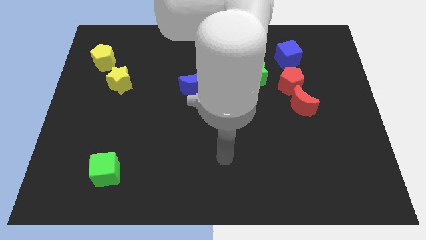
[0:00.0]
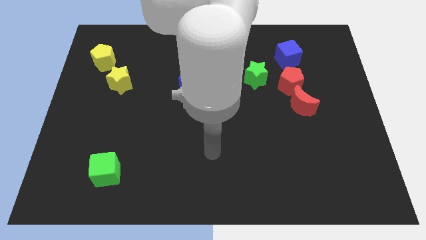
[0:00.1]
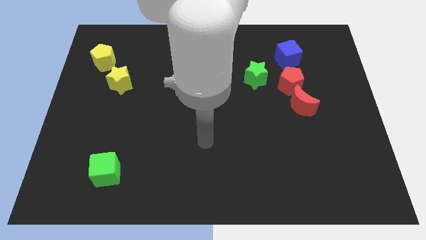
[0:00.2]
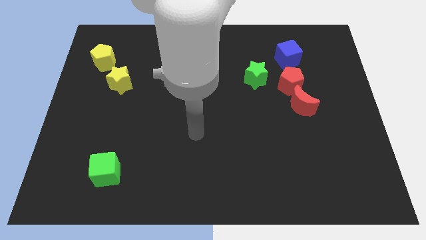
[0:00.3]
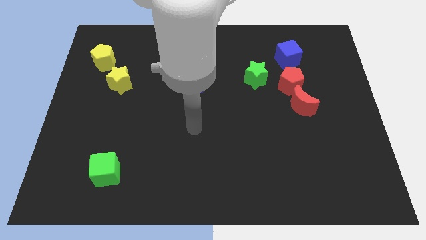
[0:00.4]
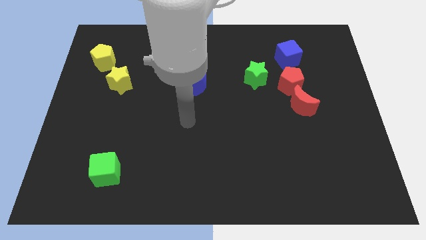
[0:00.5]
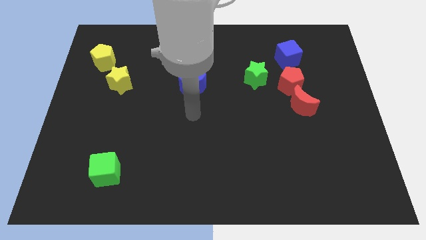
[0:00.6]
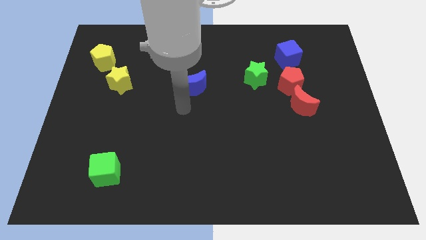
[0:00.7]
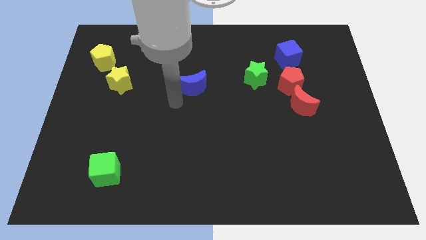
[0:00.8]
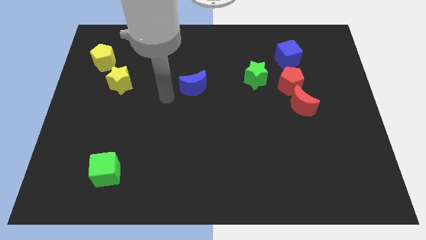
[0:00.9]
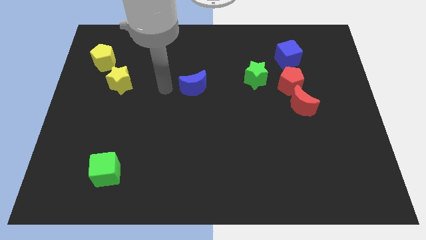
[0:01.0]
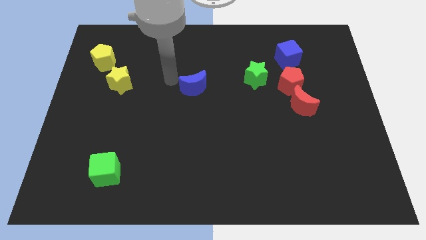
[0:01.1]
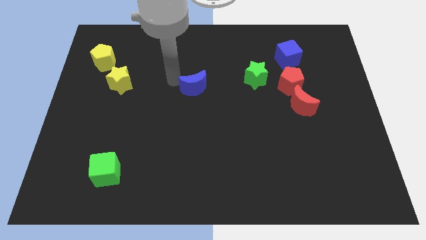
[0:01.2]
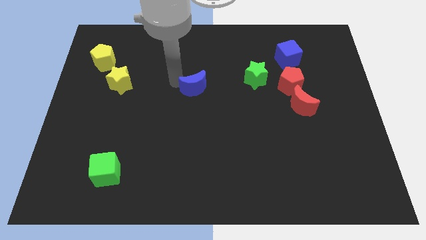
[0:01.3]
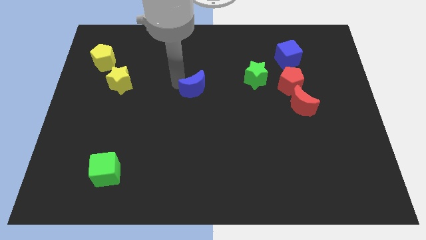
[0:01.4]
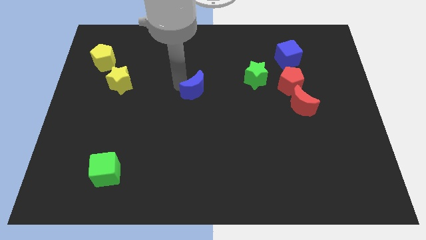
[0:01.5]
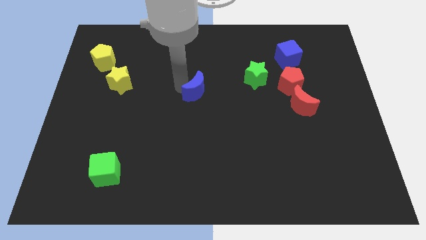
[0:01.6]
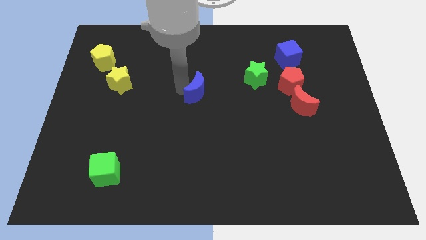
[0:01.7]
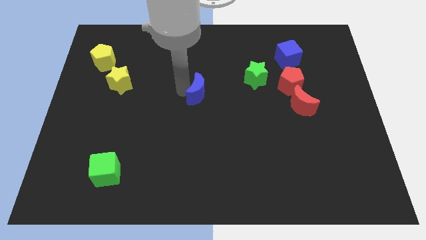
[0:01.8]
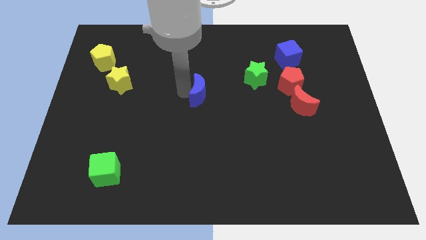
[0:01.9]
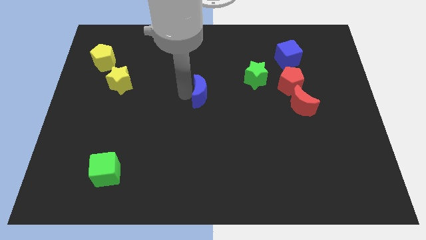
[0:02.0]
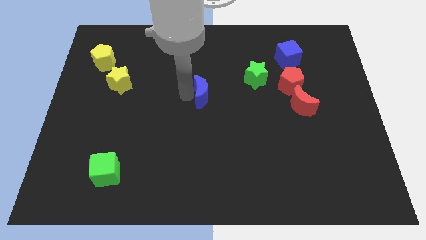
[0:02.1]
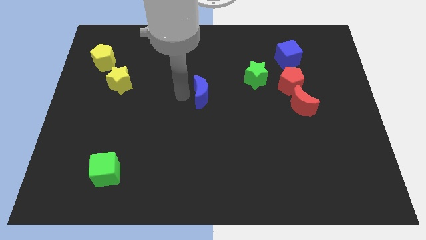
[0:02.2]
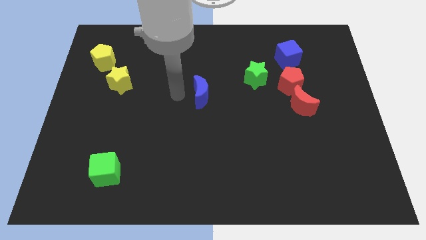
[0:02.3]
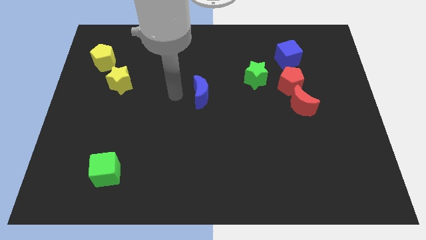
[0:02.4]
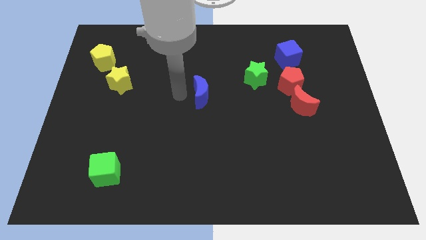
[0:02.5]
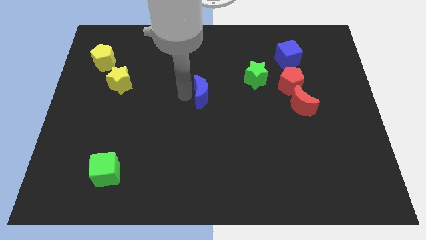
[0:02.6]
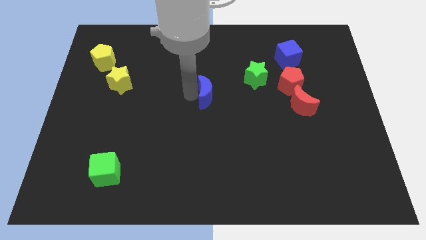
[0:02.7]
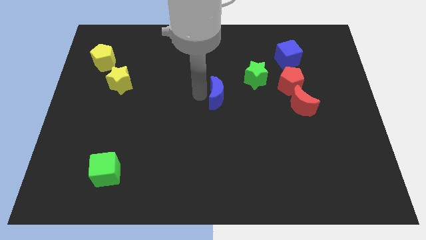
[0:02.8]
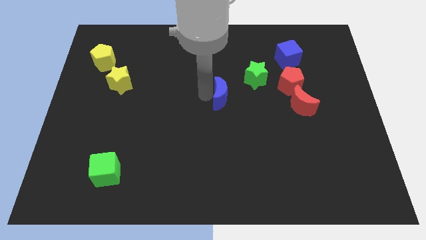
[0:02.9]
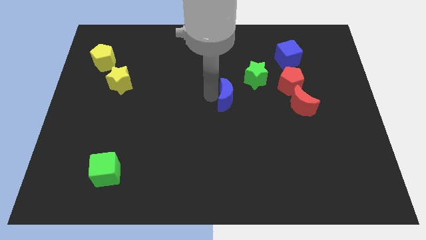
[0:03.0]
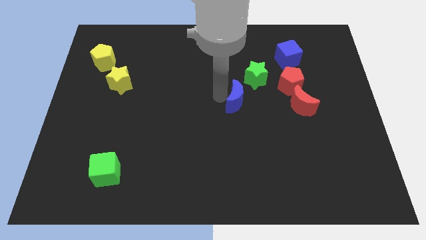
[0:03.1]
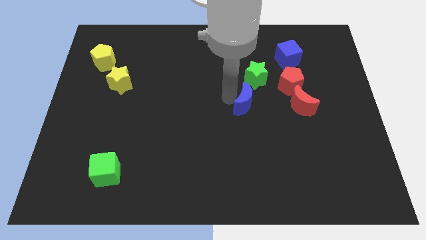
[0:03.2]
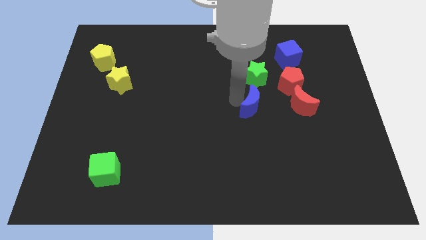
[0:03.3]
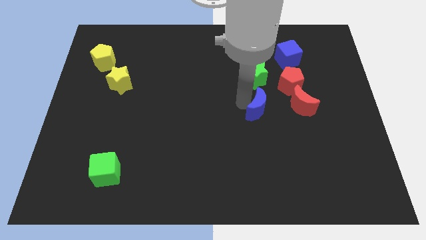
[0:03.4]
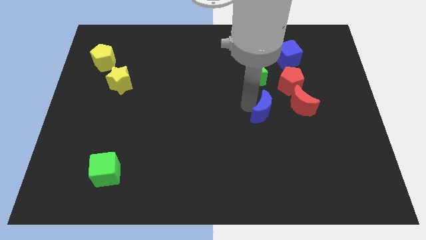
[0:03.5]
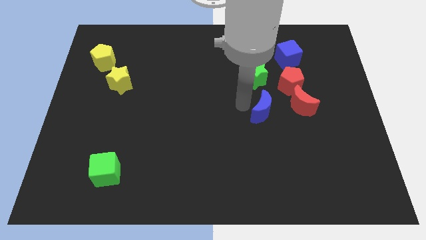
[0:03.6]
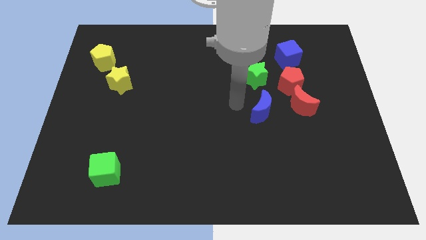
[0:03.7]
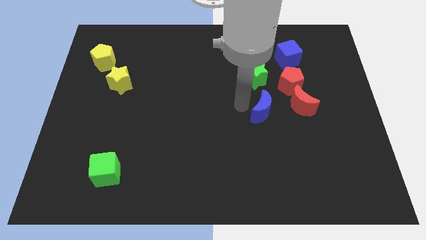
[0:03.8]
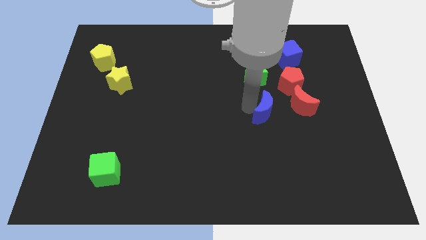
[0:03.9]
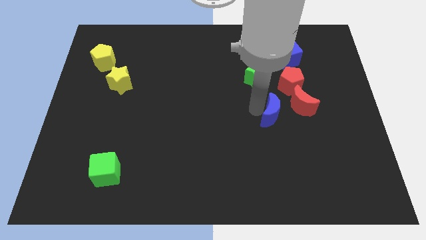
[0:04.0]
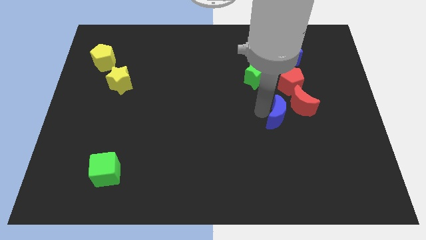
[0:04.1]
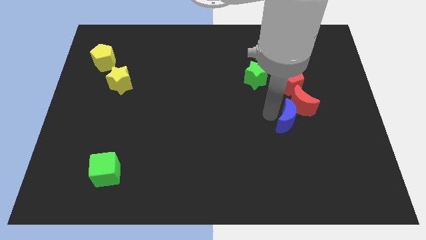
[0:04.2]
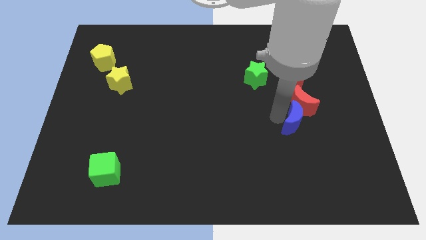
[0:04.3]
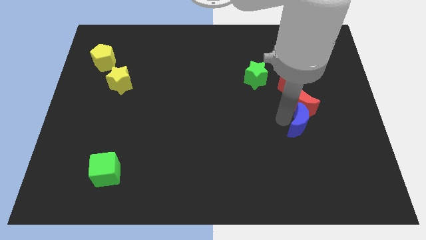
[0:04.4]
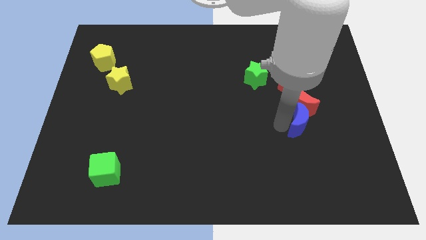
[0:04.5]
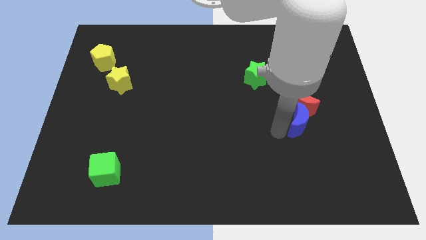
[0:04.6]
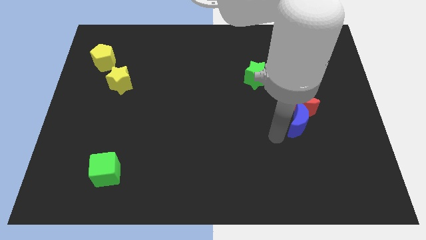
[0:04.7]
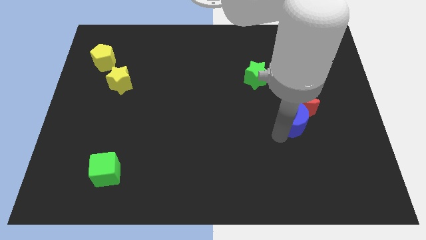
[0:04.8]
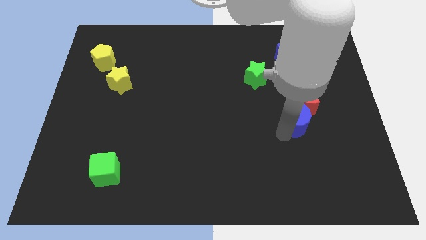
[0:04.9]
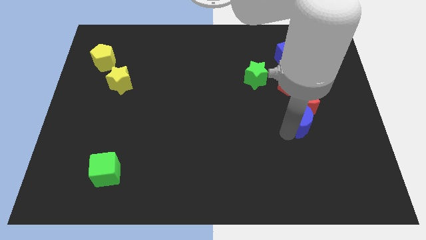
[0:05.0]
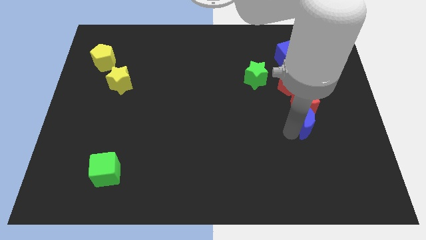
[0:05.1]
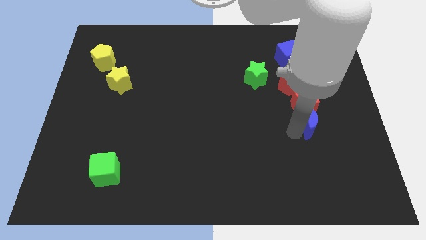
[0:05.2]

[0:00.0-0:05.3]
move the blue moon right

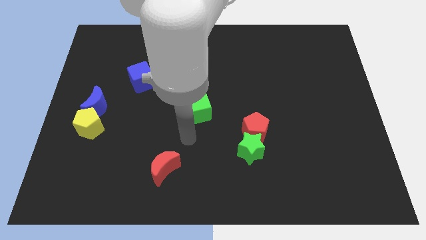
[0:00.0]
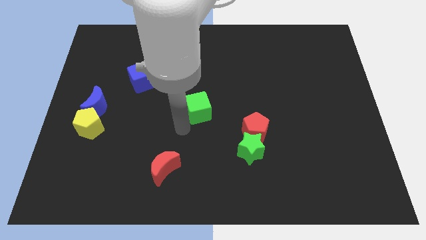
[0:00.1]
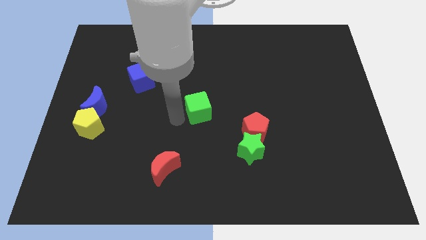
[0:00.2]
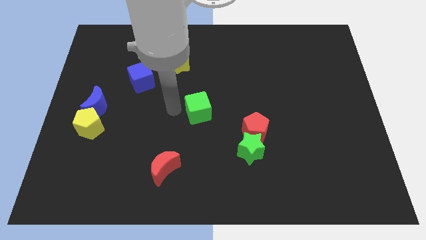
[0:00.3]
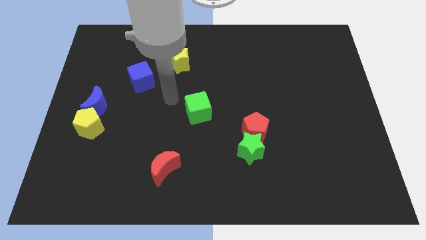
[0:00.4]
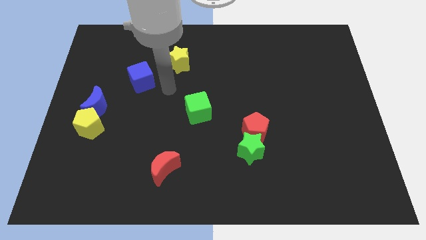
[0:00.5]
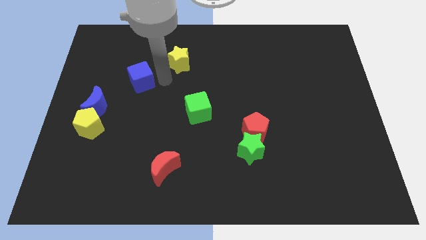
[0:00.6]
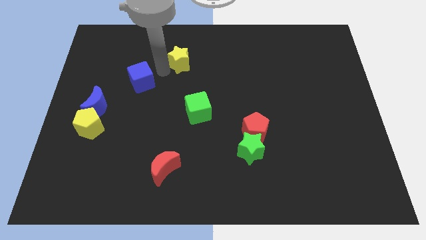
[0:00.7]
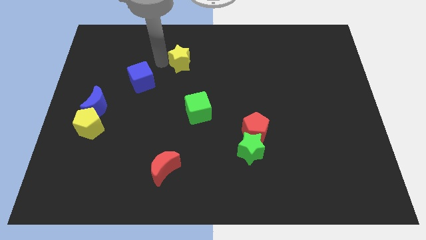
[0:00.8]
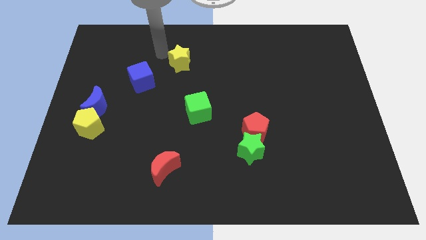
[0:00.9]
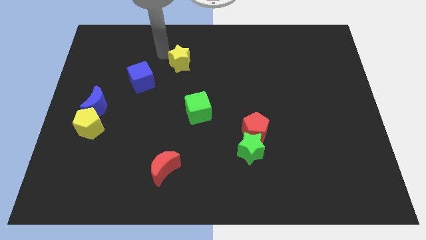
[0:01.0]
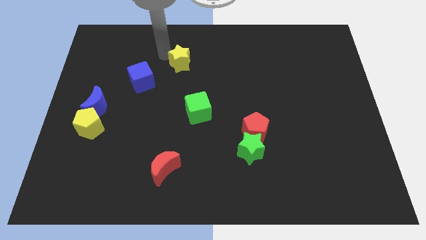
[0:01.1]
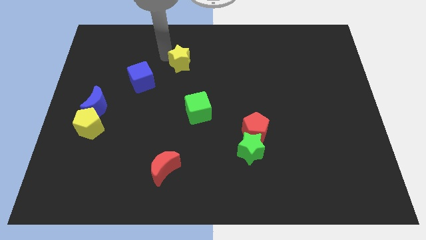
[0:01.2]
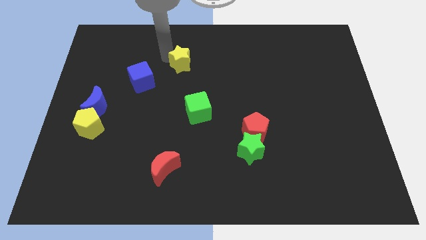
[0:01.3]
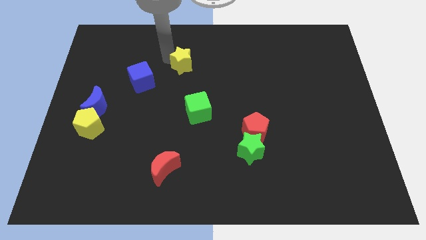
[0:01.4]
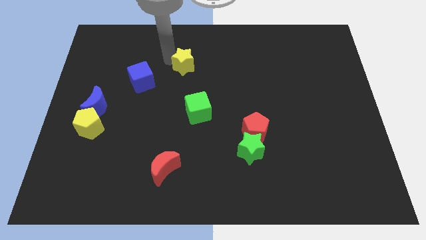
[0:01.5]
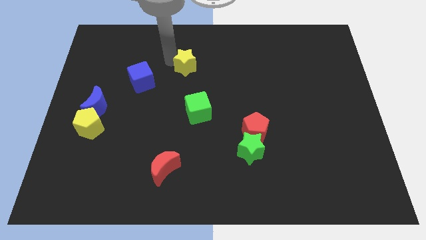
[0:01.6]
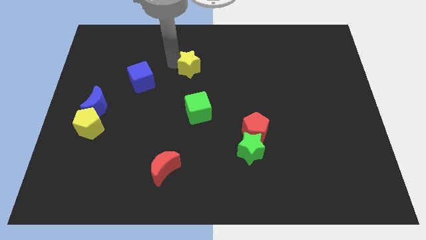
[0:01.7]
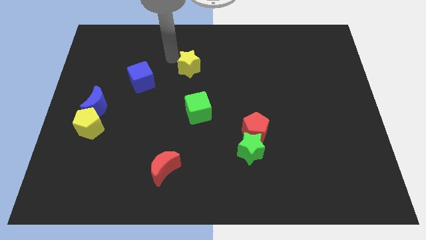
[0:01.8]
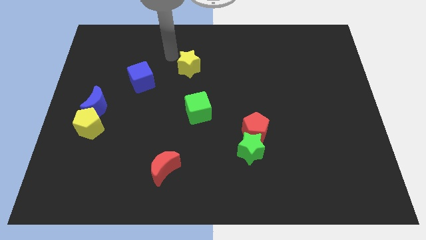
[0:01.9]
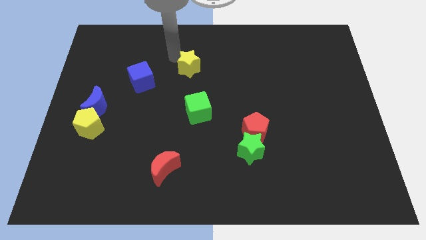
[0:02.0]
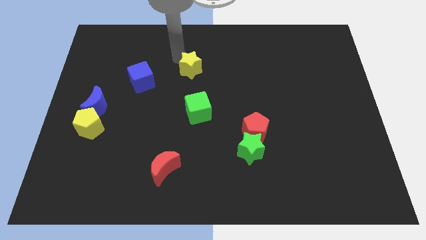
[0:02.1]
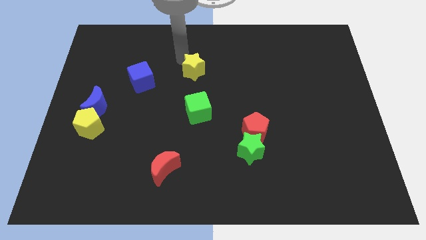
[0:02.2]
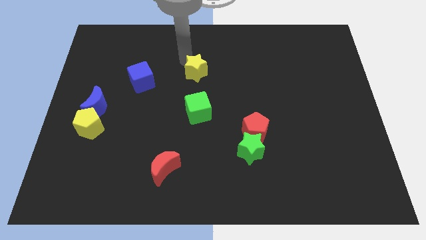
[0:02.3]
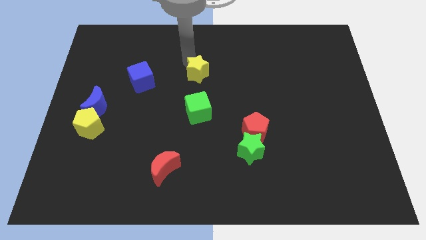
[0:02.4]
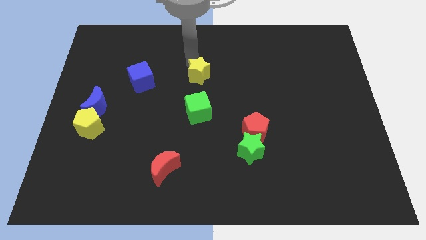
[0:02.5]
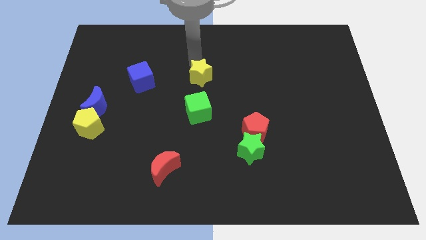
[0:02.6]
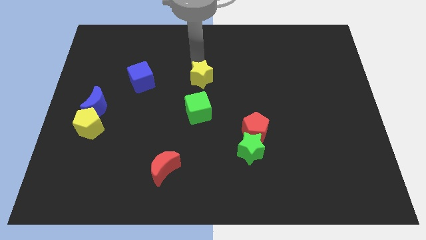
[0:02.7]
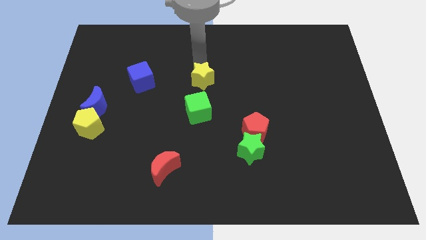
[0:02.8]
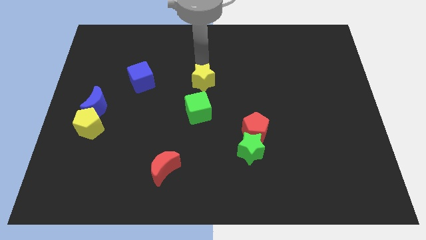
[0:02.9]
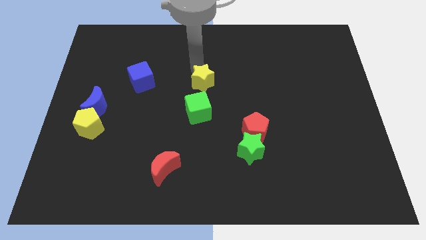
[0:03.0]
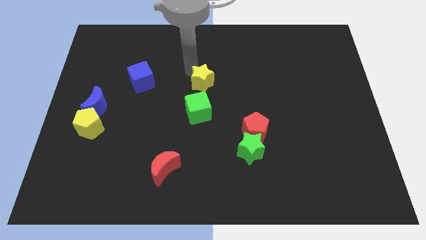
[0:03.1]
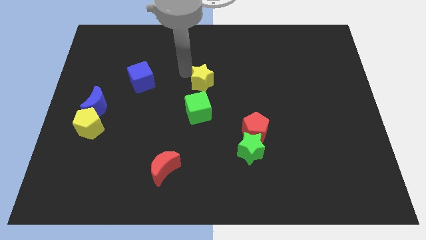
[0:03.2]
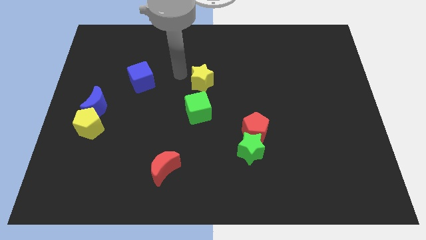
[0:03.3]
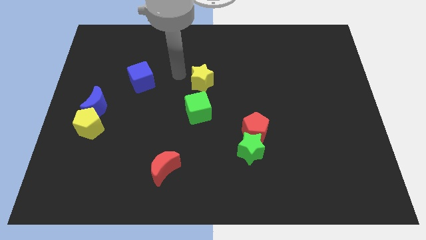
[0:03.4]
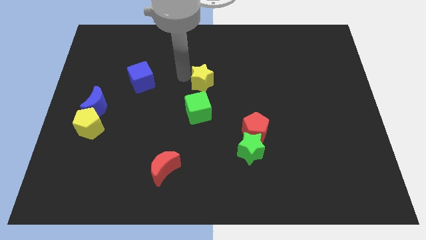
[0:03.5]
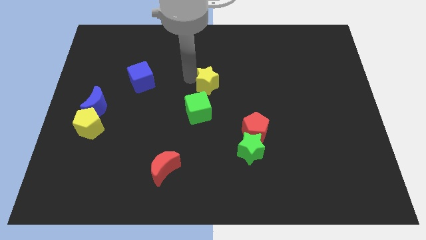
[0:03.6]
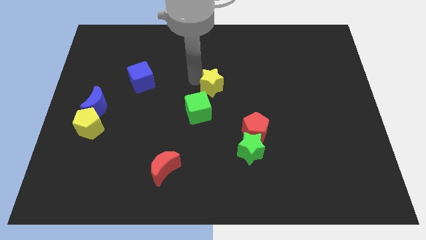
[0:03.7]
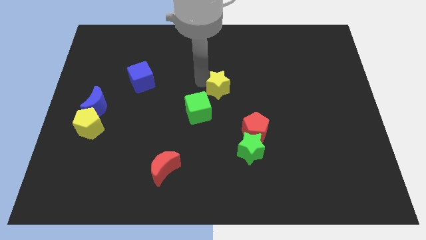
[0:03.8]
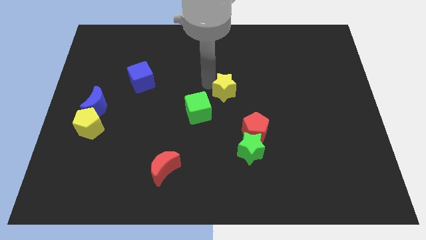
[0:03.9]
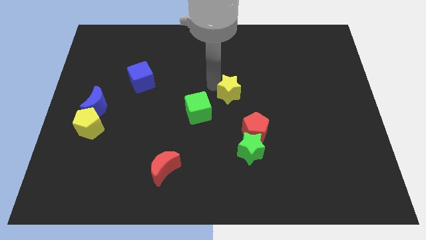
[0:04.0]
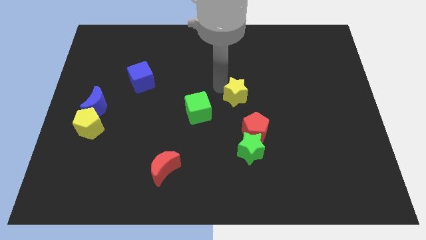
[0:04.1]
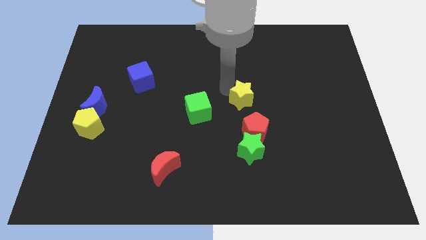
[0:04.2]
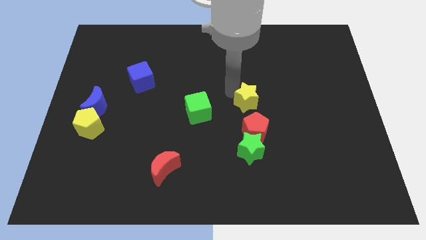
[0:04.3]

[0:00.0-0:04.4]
push the yellow star down and right
